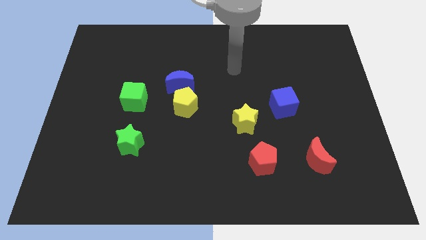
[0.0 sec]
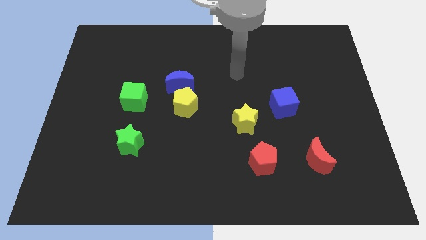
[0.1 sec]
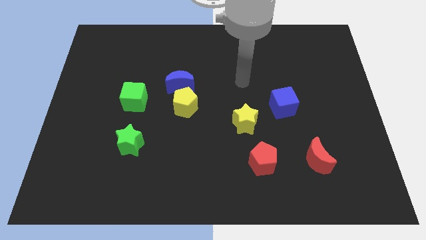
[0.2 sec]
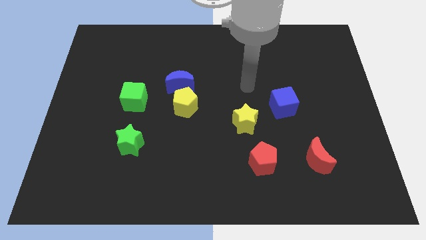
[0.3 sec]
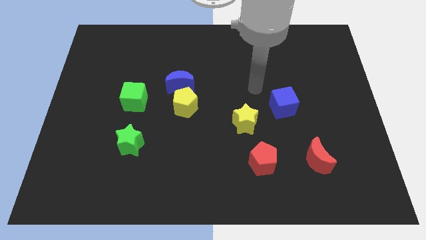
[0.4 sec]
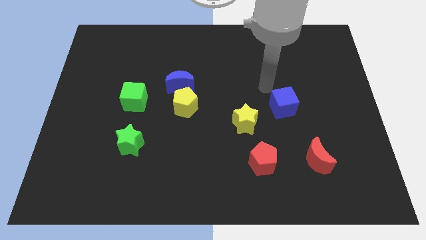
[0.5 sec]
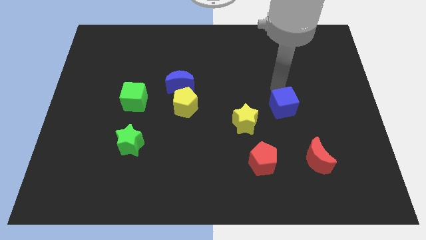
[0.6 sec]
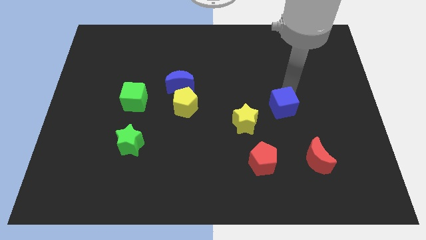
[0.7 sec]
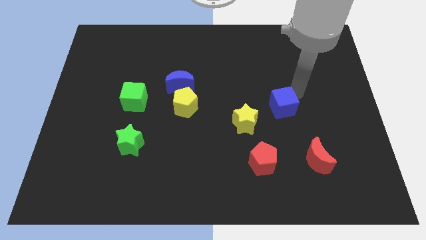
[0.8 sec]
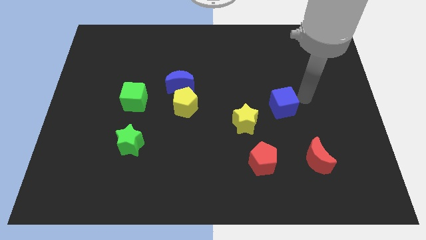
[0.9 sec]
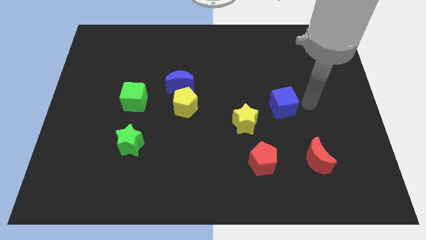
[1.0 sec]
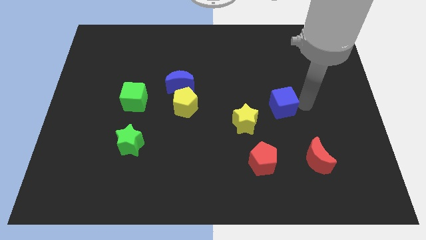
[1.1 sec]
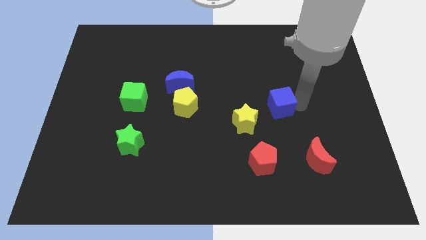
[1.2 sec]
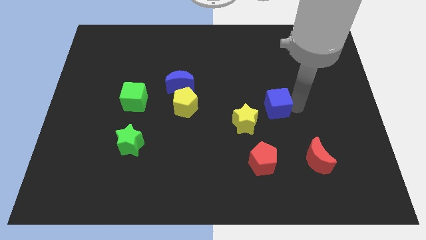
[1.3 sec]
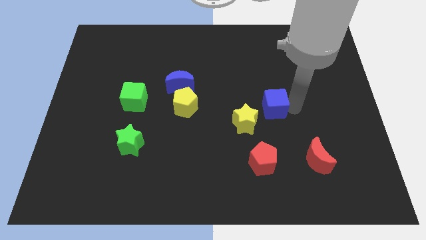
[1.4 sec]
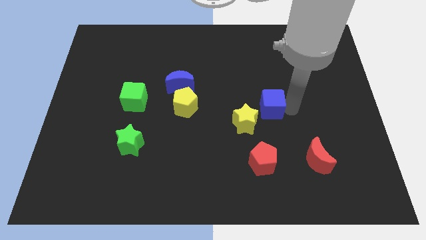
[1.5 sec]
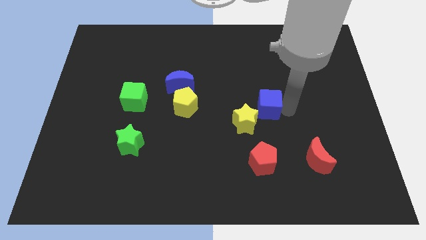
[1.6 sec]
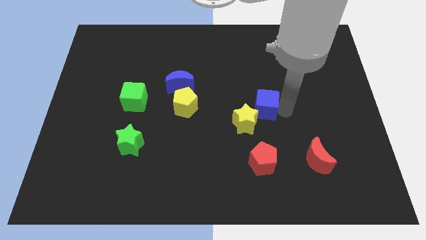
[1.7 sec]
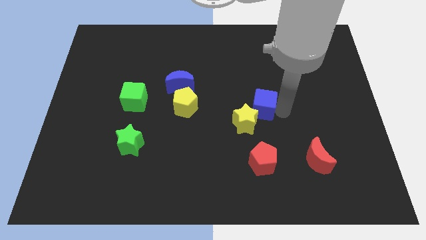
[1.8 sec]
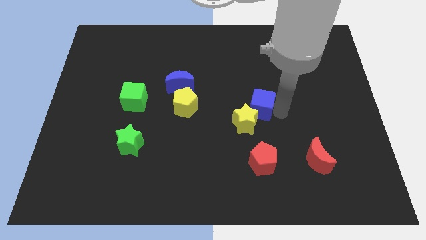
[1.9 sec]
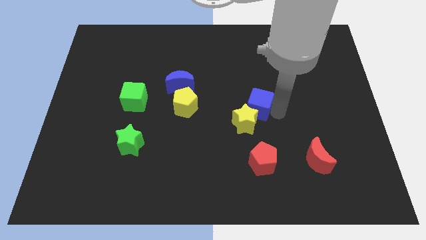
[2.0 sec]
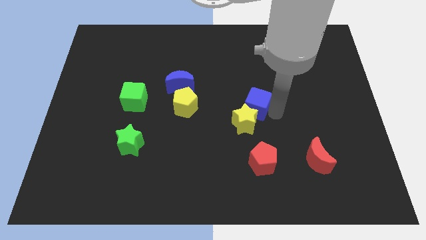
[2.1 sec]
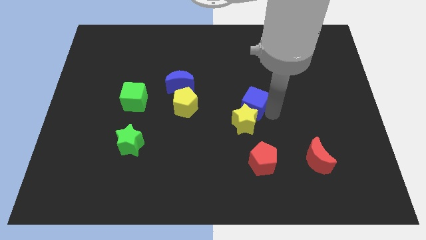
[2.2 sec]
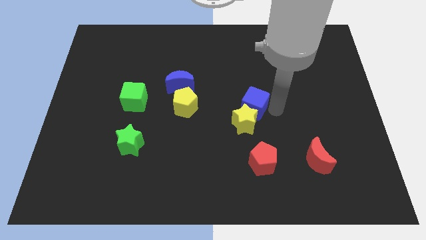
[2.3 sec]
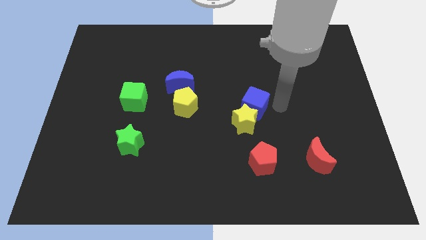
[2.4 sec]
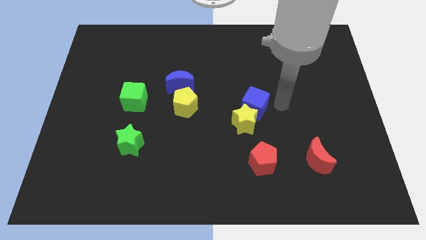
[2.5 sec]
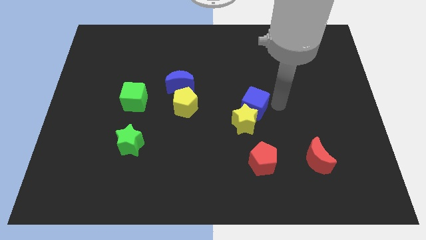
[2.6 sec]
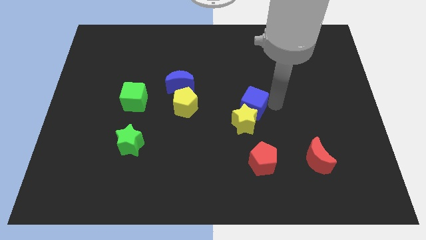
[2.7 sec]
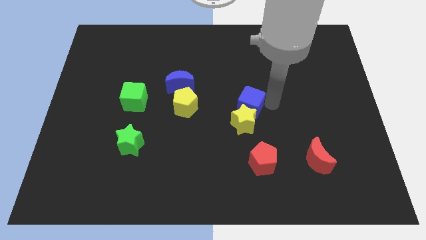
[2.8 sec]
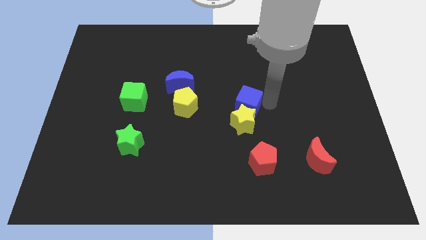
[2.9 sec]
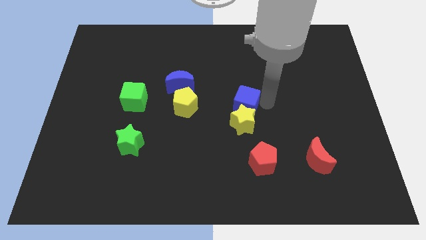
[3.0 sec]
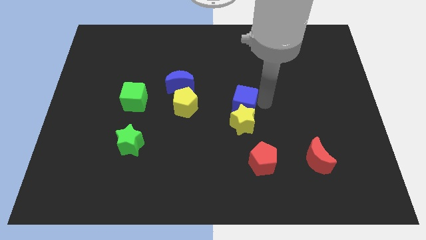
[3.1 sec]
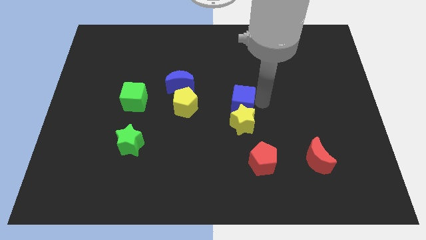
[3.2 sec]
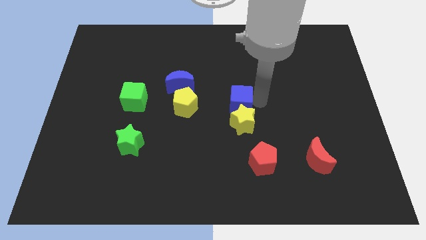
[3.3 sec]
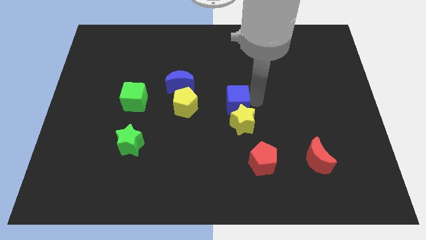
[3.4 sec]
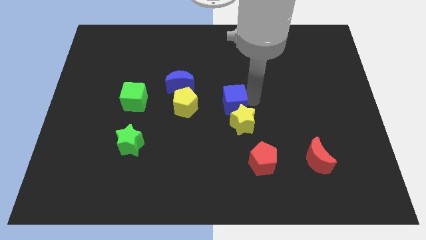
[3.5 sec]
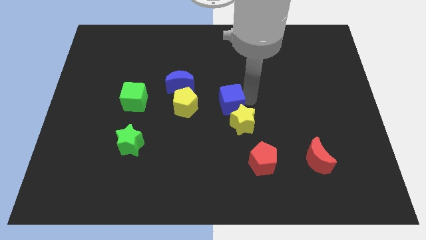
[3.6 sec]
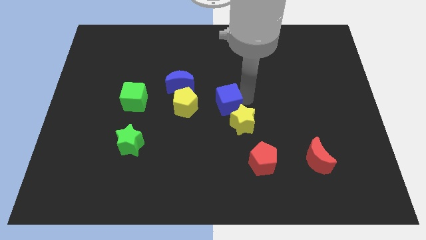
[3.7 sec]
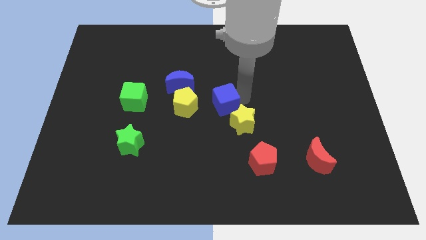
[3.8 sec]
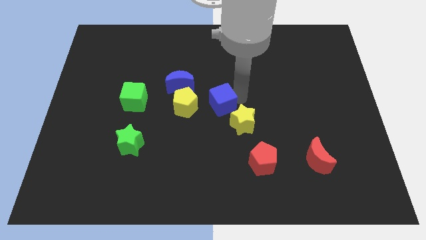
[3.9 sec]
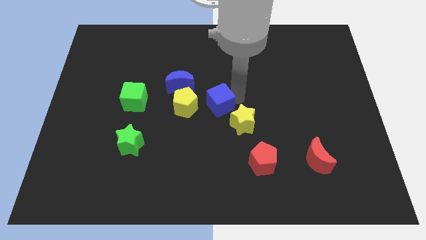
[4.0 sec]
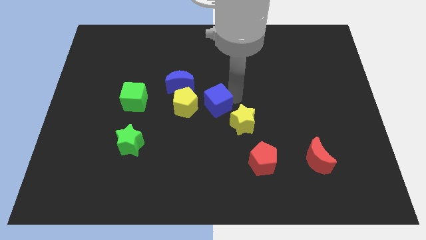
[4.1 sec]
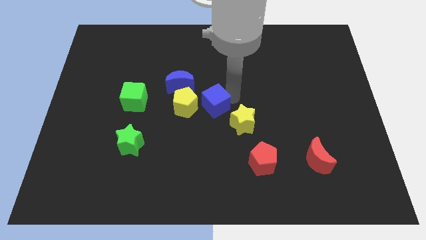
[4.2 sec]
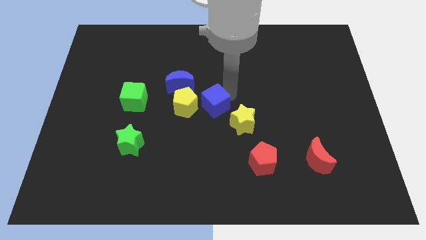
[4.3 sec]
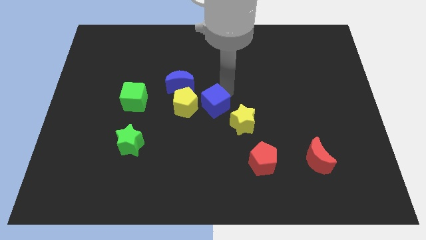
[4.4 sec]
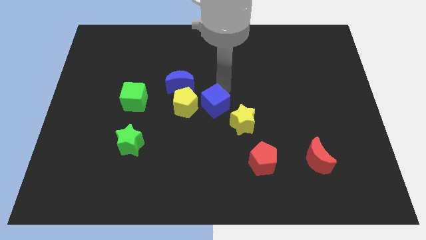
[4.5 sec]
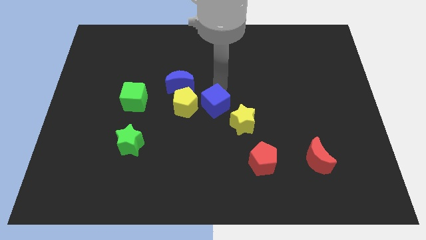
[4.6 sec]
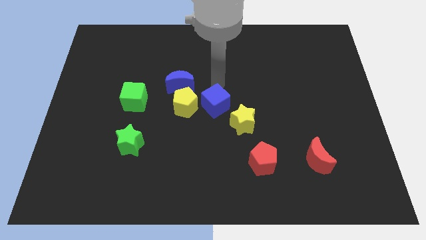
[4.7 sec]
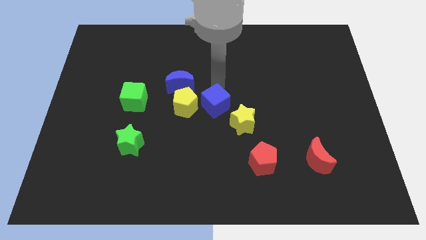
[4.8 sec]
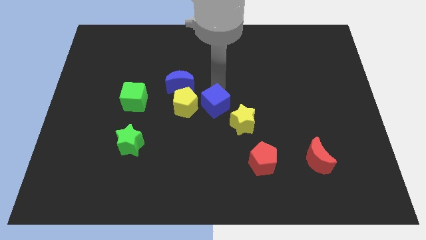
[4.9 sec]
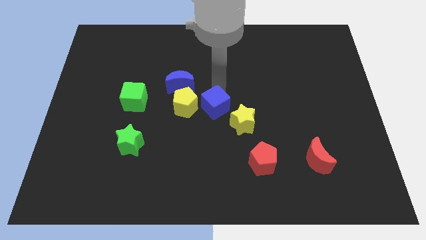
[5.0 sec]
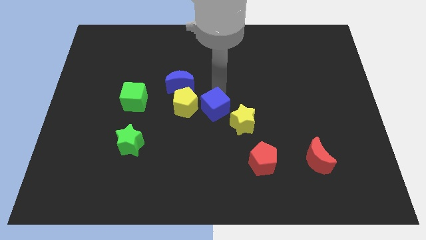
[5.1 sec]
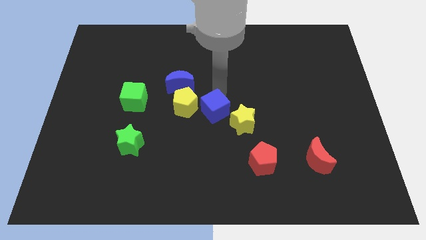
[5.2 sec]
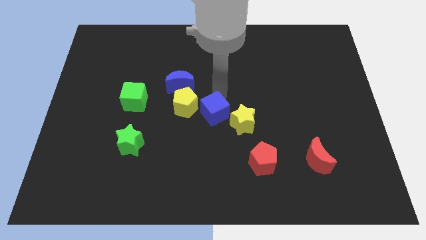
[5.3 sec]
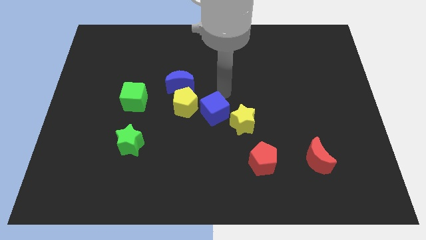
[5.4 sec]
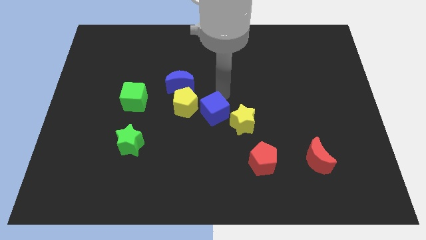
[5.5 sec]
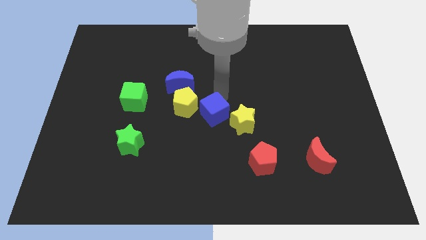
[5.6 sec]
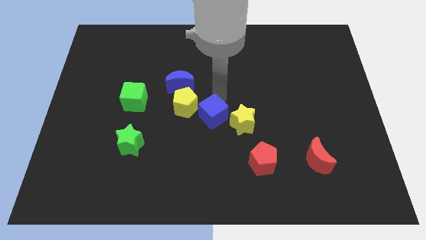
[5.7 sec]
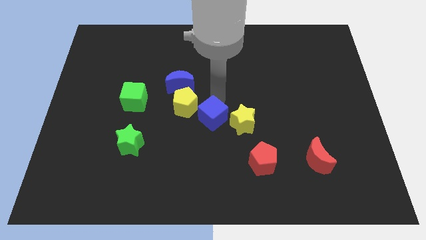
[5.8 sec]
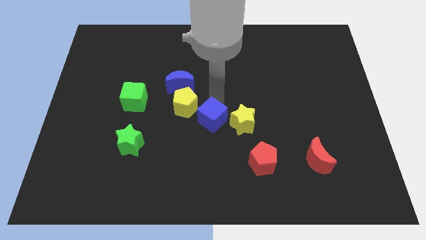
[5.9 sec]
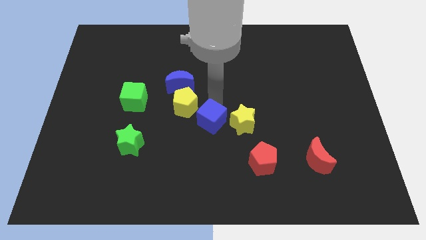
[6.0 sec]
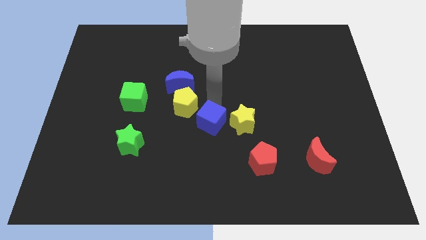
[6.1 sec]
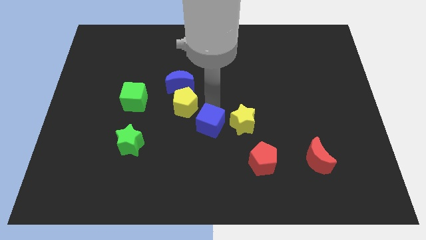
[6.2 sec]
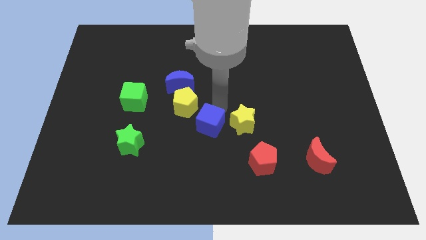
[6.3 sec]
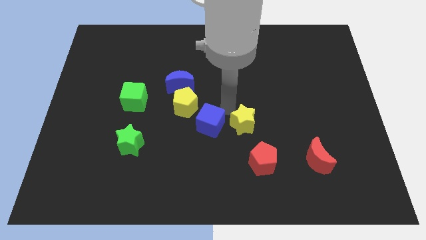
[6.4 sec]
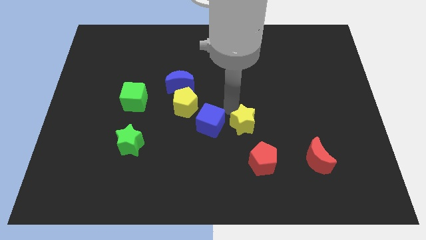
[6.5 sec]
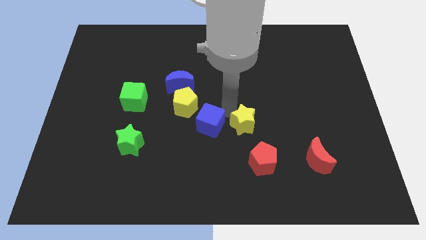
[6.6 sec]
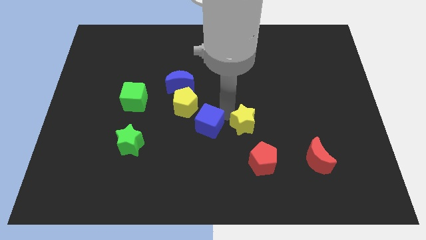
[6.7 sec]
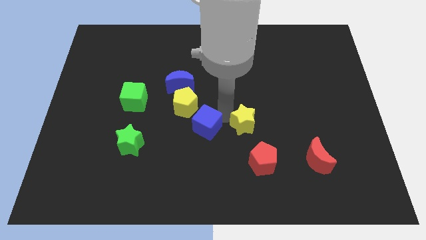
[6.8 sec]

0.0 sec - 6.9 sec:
push the blue cube below the yellow pentagon
